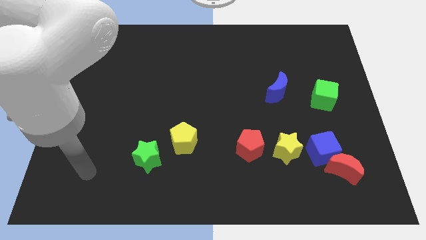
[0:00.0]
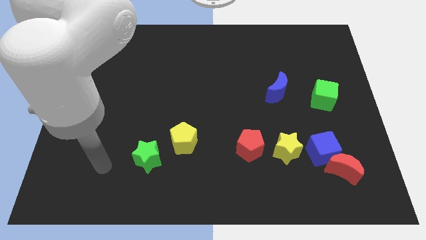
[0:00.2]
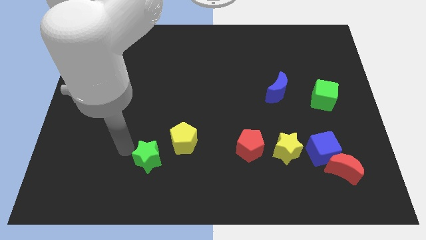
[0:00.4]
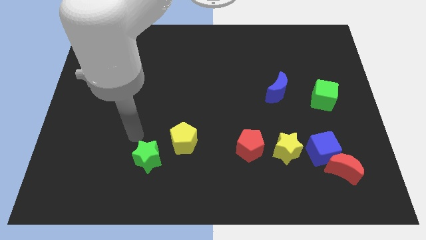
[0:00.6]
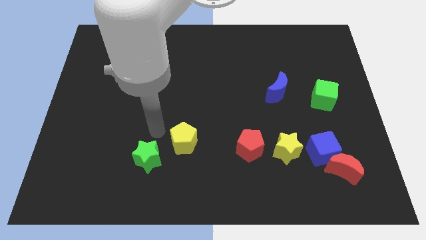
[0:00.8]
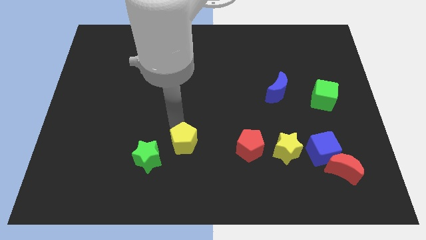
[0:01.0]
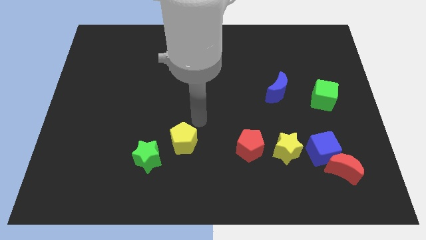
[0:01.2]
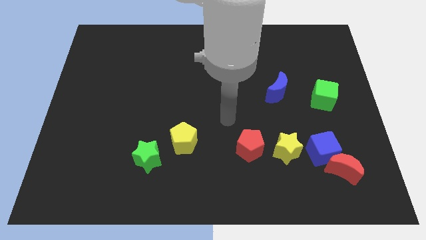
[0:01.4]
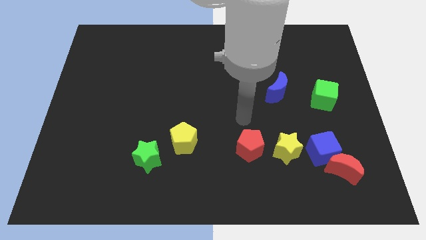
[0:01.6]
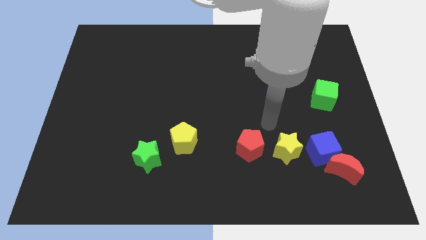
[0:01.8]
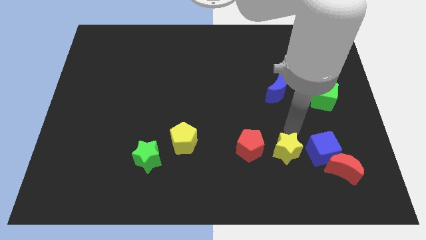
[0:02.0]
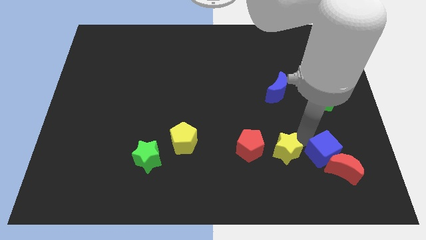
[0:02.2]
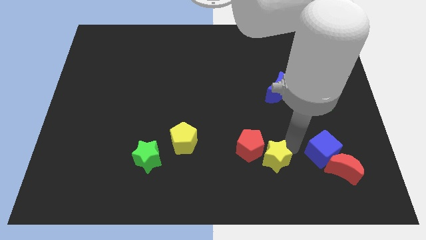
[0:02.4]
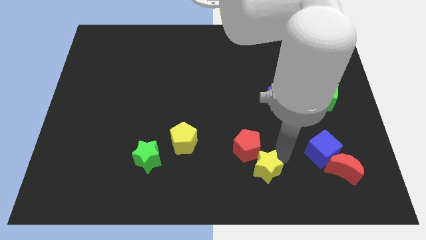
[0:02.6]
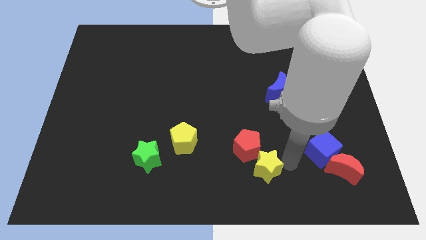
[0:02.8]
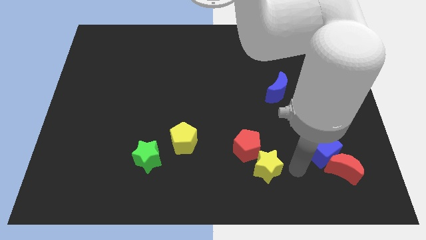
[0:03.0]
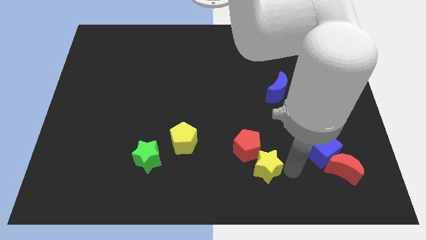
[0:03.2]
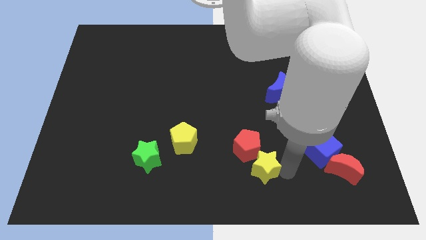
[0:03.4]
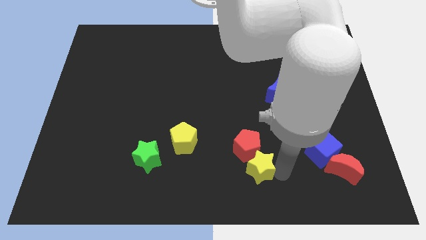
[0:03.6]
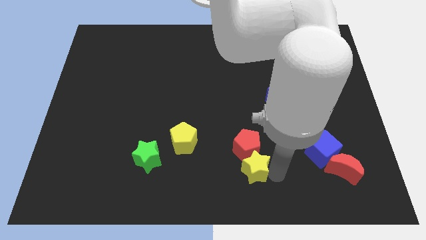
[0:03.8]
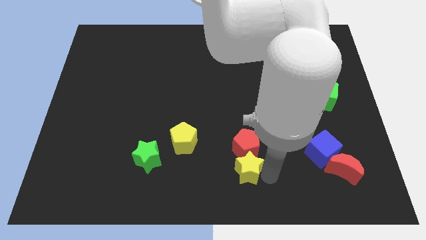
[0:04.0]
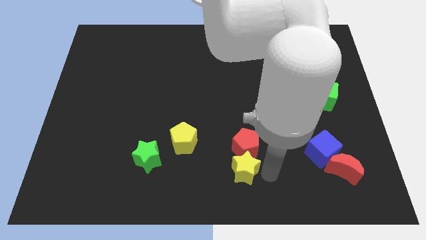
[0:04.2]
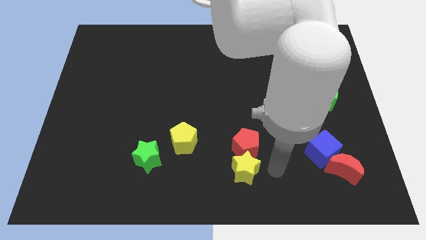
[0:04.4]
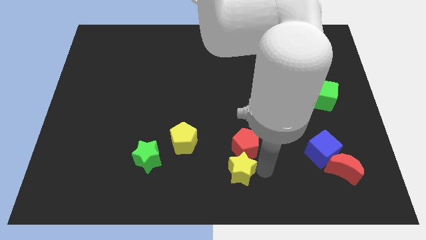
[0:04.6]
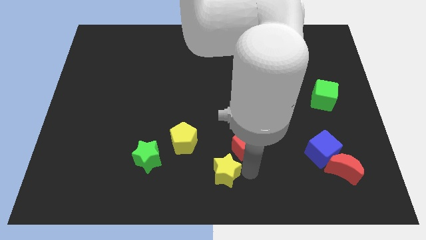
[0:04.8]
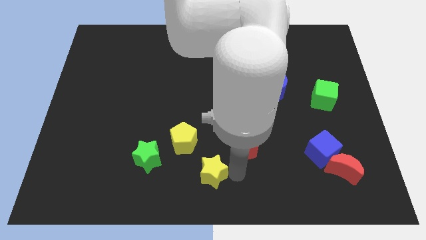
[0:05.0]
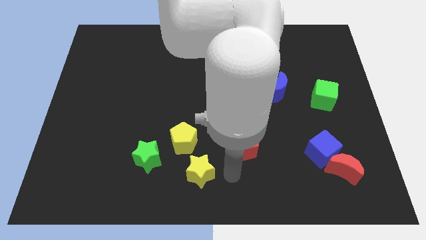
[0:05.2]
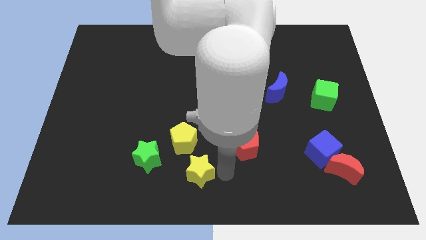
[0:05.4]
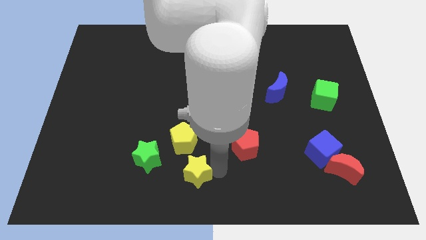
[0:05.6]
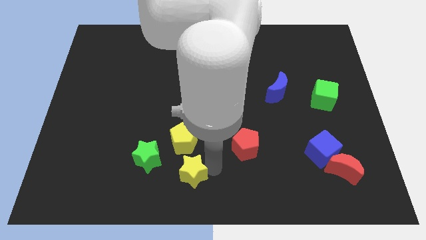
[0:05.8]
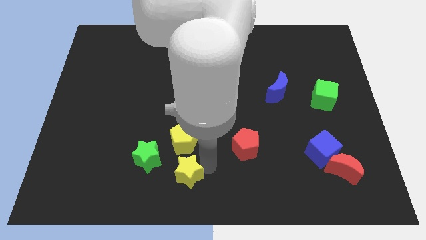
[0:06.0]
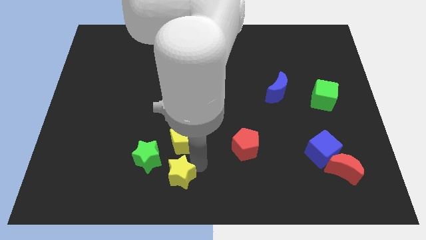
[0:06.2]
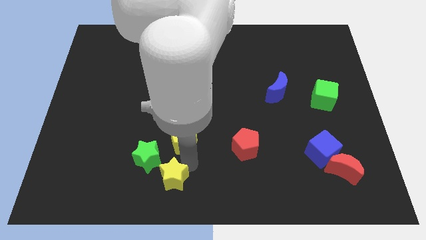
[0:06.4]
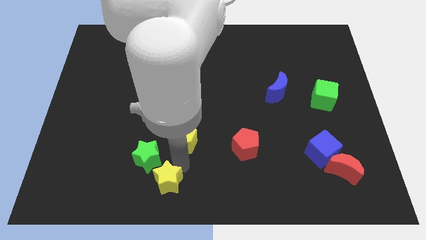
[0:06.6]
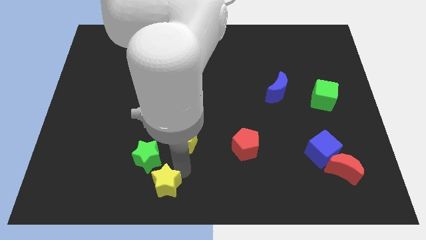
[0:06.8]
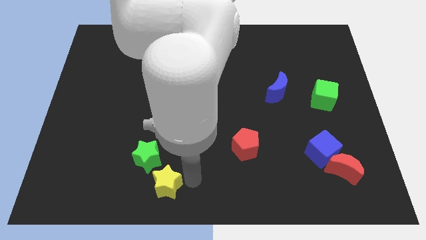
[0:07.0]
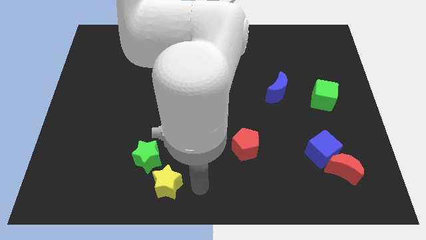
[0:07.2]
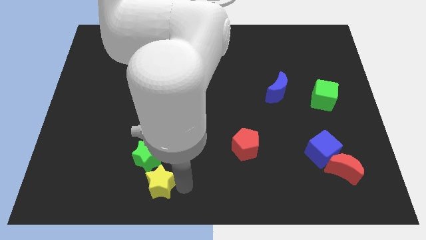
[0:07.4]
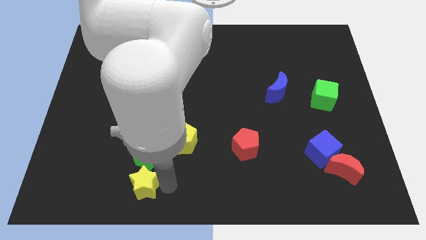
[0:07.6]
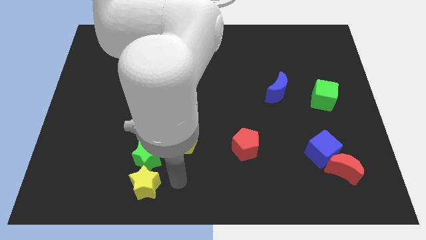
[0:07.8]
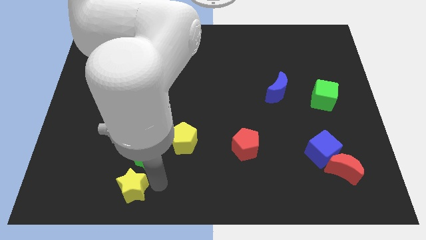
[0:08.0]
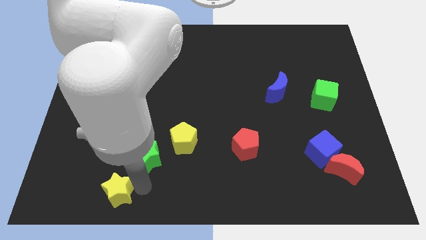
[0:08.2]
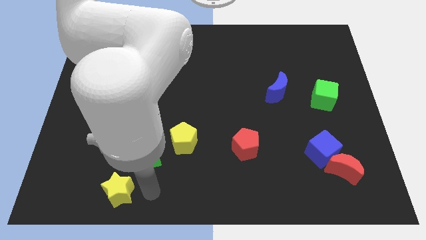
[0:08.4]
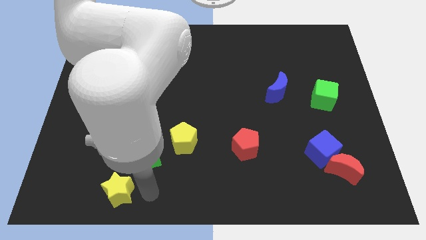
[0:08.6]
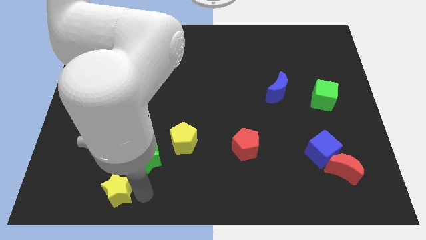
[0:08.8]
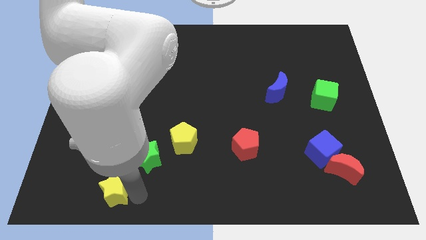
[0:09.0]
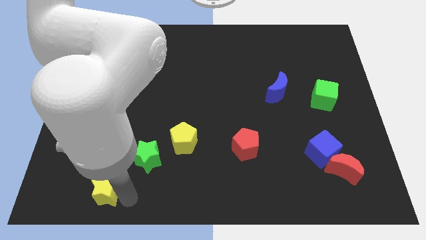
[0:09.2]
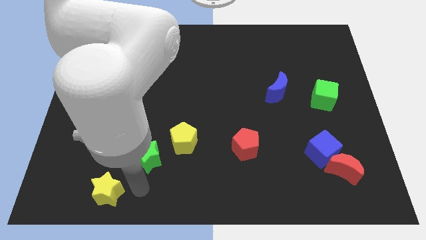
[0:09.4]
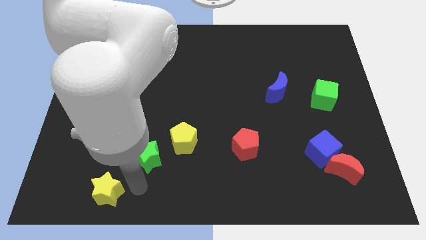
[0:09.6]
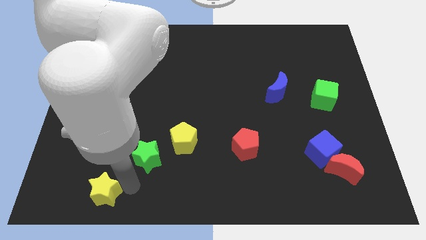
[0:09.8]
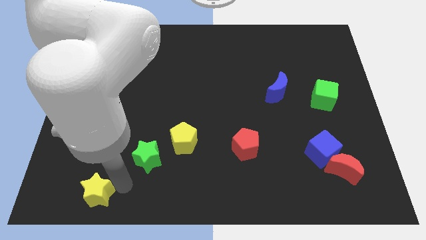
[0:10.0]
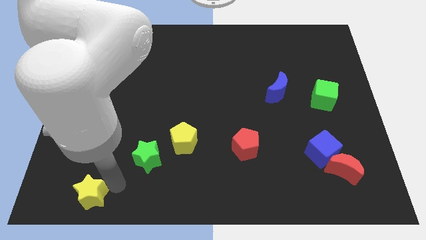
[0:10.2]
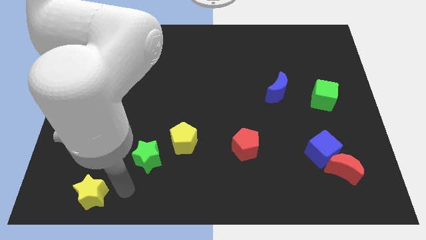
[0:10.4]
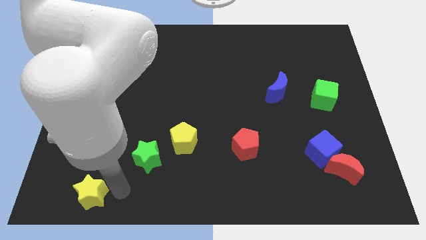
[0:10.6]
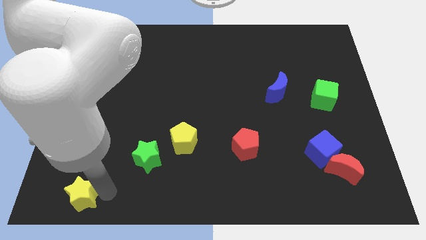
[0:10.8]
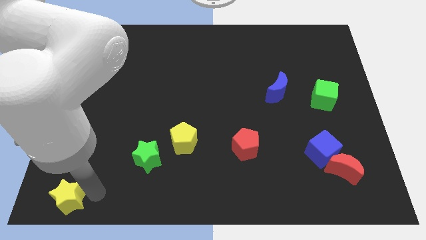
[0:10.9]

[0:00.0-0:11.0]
put the yellow star to the bottom left of the board

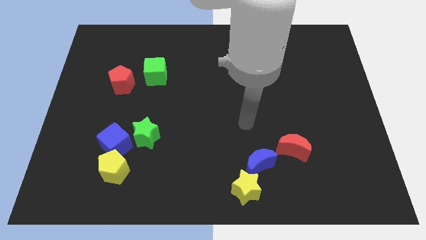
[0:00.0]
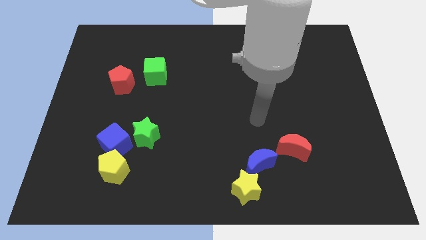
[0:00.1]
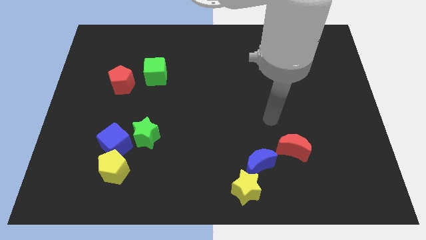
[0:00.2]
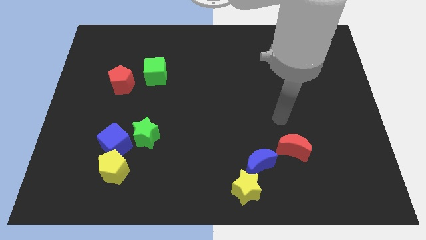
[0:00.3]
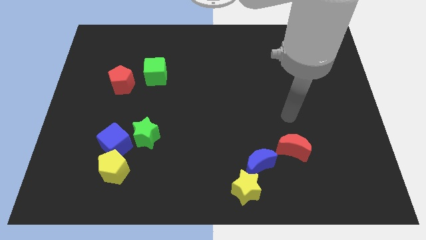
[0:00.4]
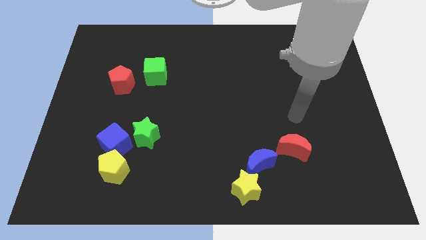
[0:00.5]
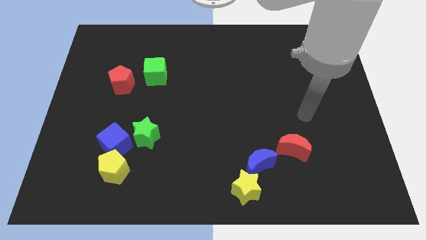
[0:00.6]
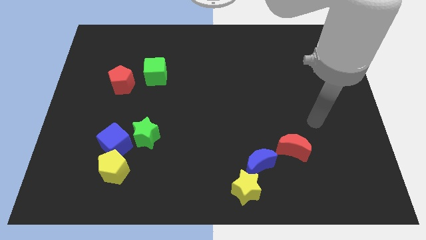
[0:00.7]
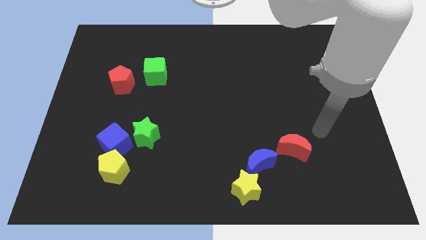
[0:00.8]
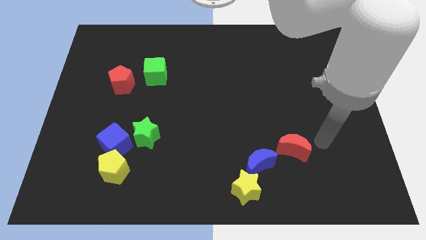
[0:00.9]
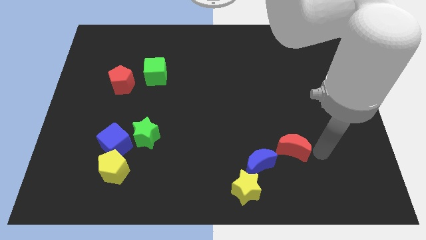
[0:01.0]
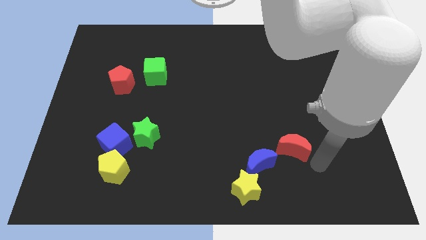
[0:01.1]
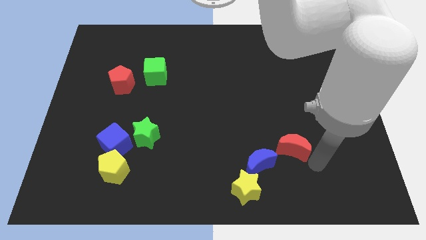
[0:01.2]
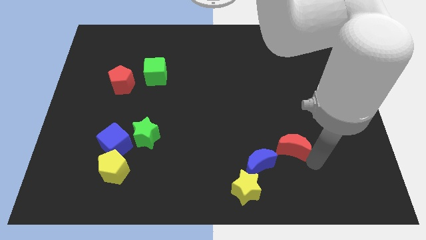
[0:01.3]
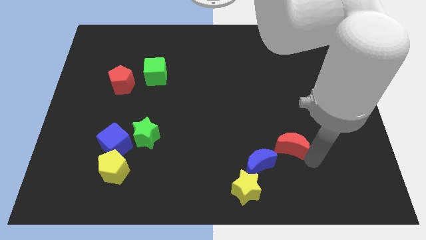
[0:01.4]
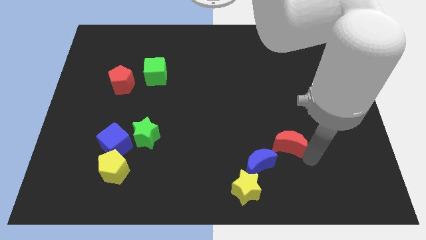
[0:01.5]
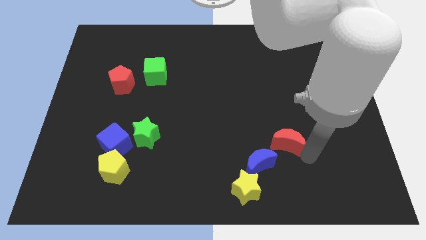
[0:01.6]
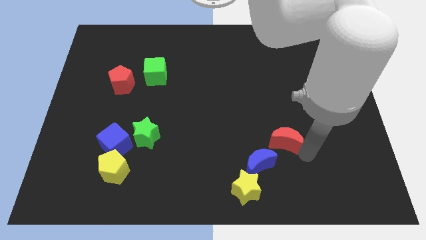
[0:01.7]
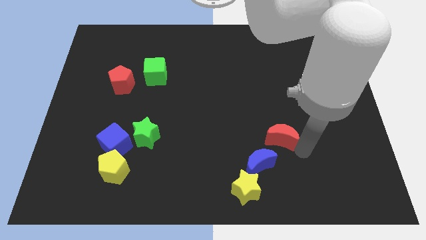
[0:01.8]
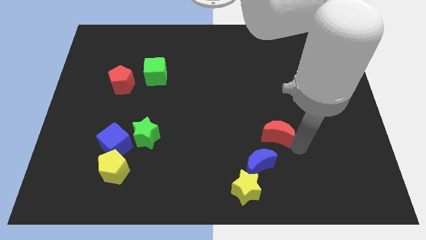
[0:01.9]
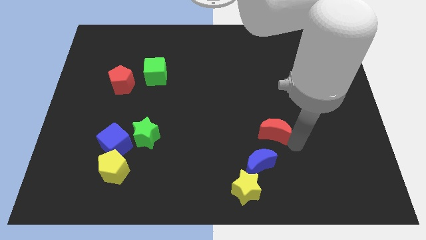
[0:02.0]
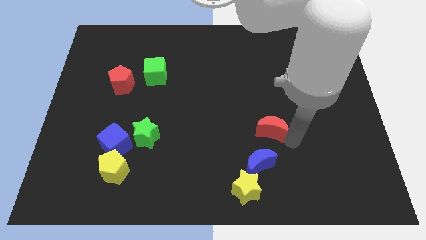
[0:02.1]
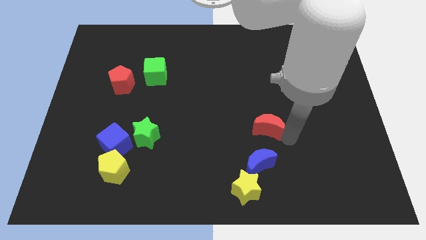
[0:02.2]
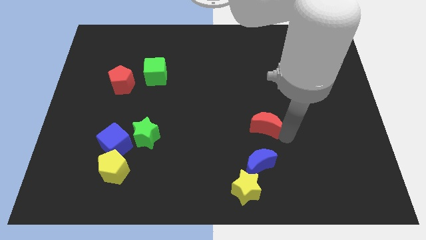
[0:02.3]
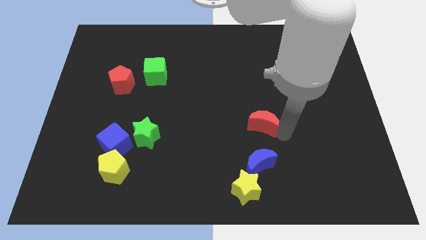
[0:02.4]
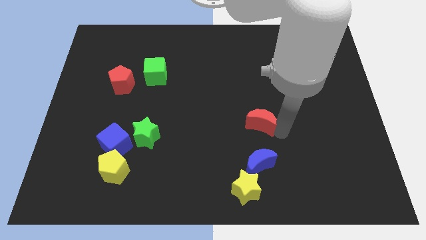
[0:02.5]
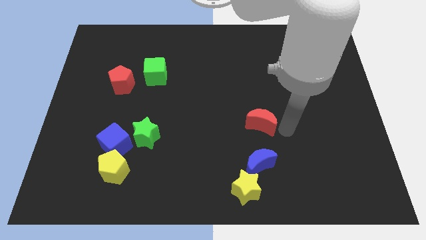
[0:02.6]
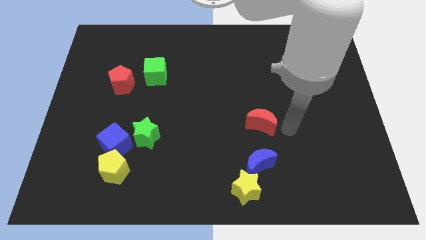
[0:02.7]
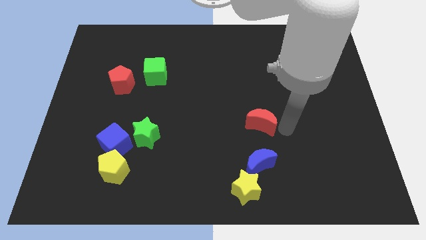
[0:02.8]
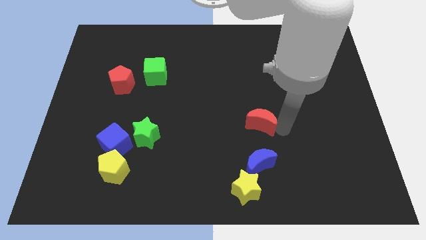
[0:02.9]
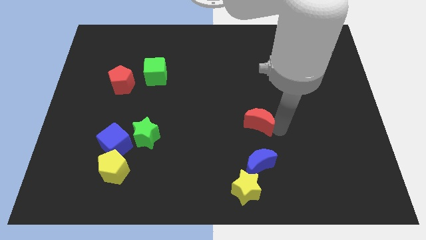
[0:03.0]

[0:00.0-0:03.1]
put the red moon to the middle
